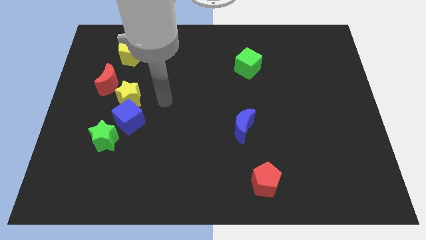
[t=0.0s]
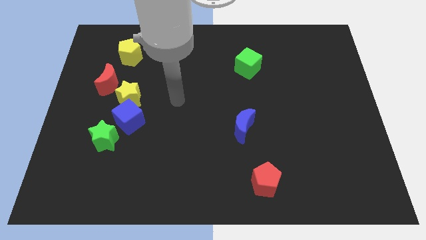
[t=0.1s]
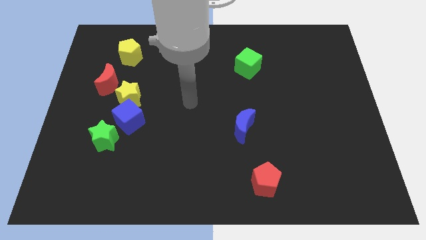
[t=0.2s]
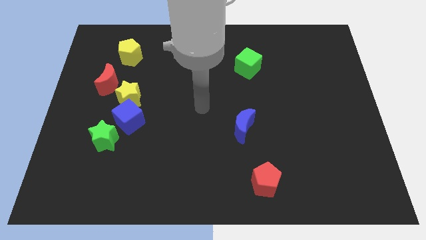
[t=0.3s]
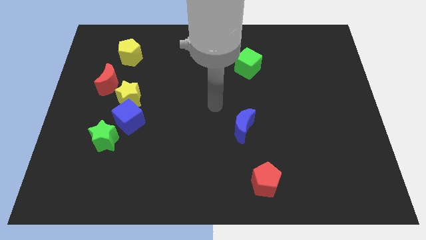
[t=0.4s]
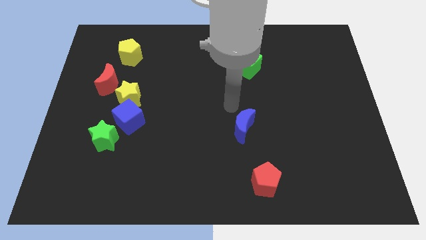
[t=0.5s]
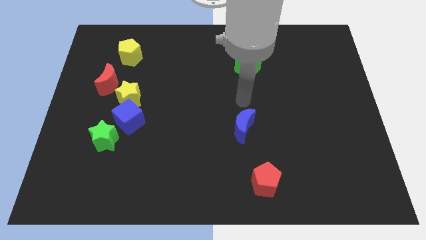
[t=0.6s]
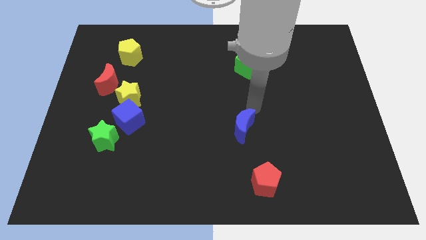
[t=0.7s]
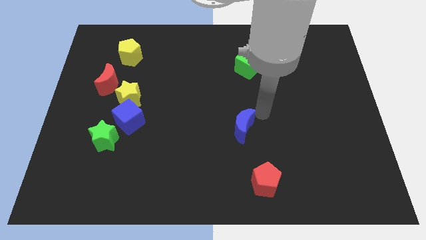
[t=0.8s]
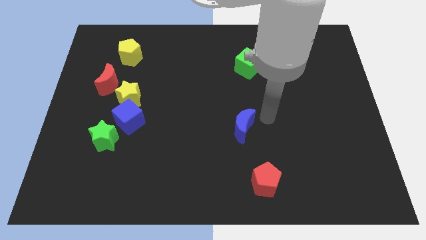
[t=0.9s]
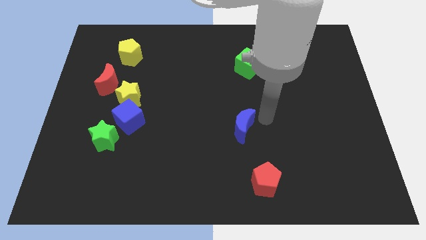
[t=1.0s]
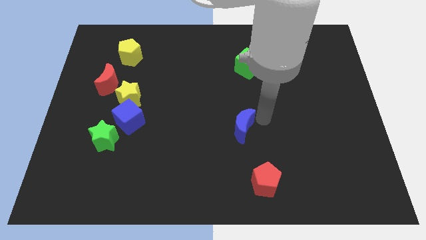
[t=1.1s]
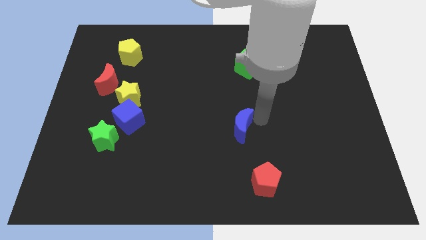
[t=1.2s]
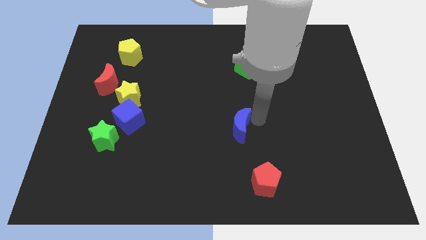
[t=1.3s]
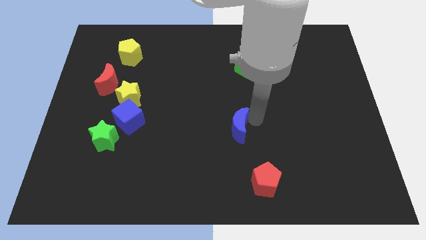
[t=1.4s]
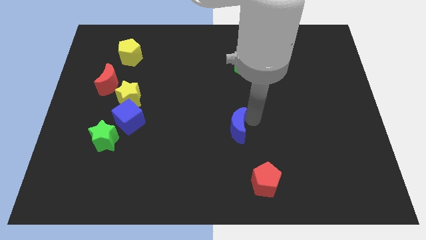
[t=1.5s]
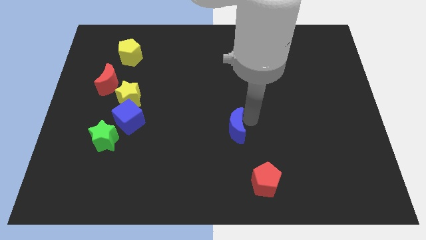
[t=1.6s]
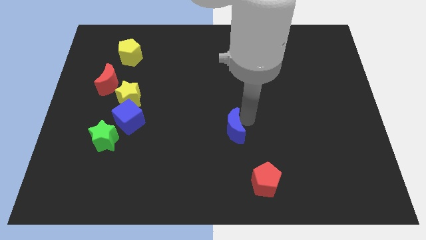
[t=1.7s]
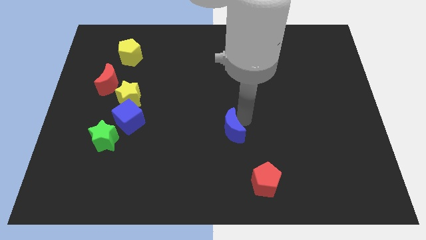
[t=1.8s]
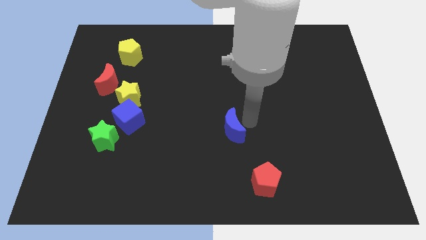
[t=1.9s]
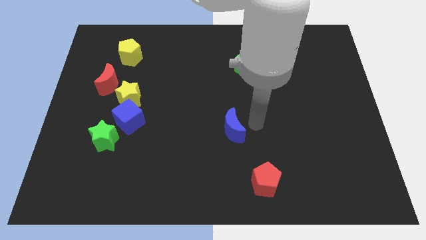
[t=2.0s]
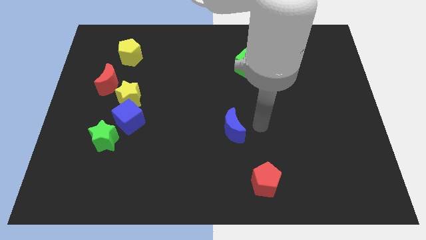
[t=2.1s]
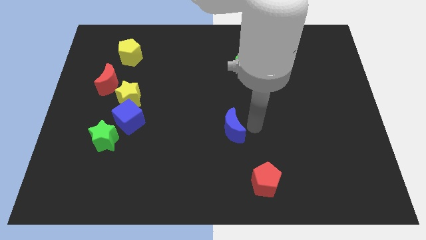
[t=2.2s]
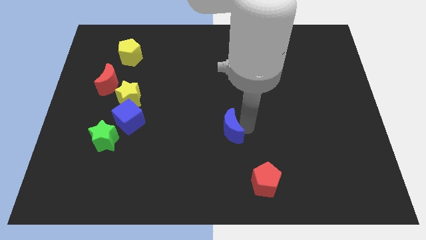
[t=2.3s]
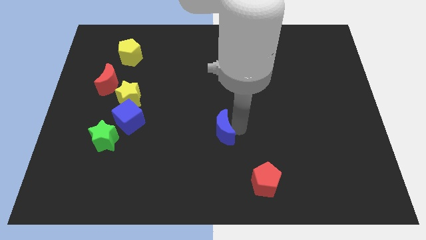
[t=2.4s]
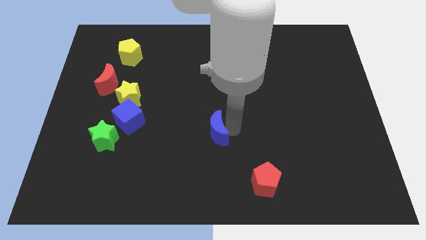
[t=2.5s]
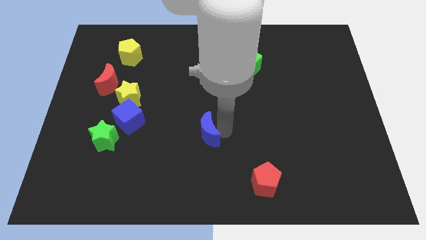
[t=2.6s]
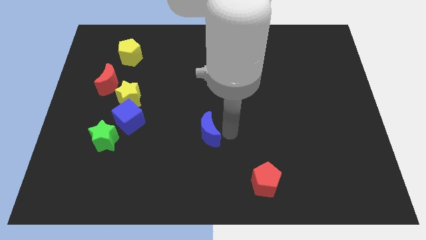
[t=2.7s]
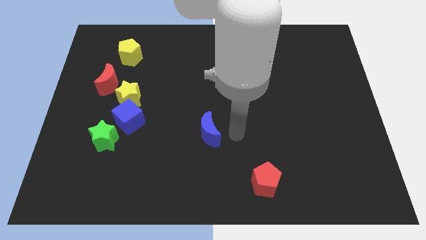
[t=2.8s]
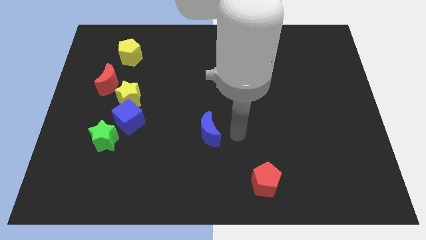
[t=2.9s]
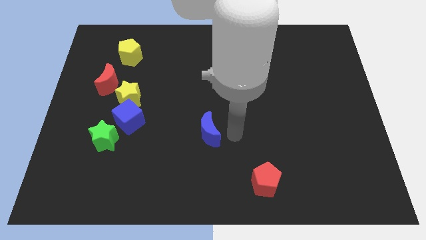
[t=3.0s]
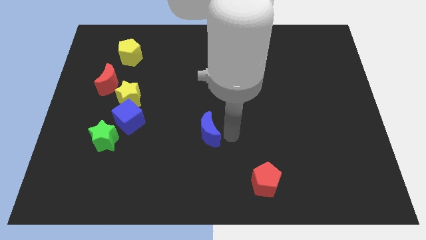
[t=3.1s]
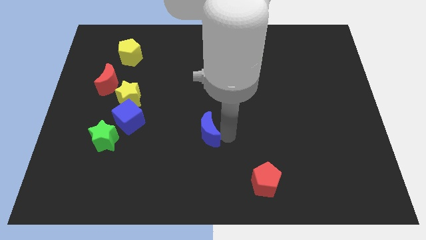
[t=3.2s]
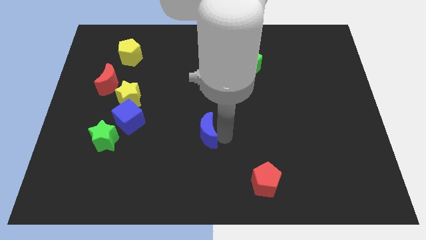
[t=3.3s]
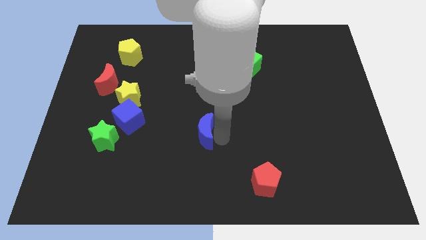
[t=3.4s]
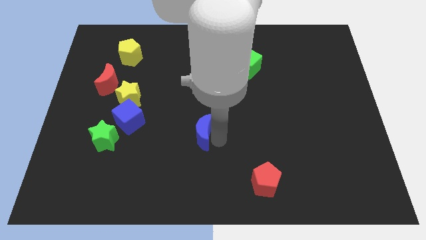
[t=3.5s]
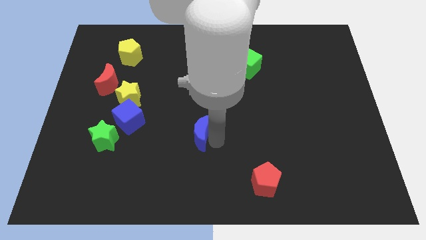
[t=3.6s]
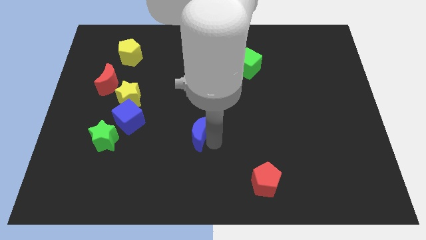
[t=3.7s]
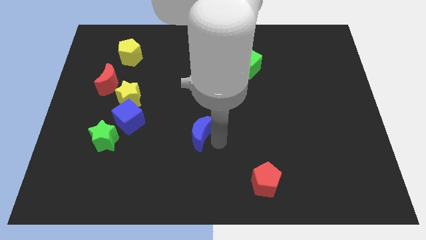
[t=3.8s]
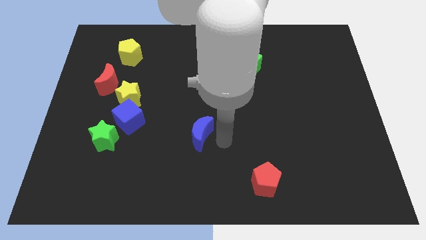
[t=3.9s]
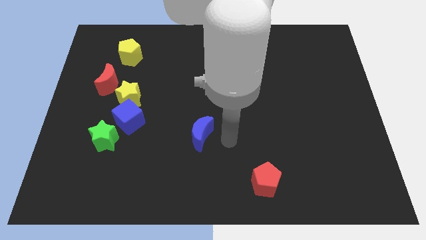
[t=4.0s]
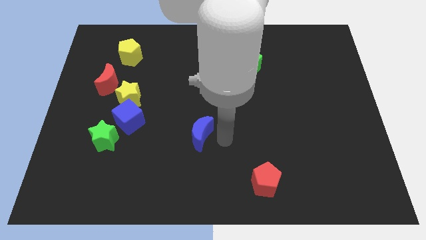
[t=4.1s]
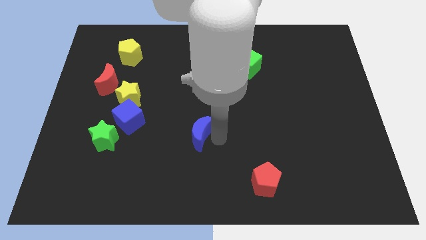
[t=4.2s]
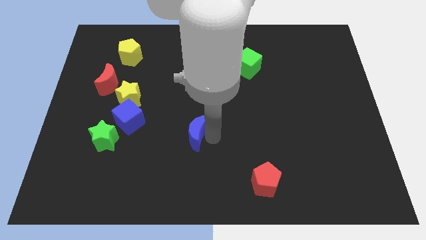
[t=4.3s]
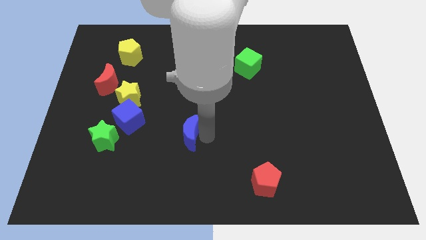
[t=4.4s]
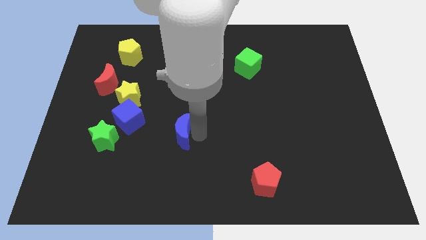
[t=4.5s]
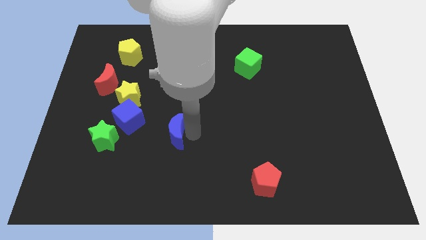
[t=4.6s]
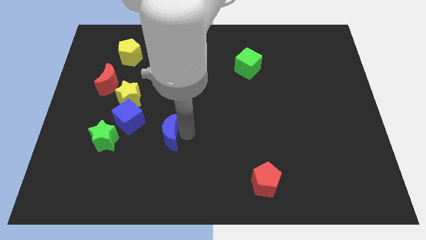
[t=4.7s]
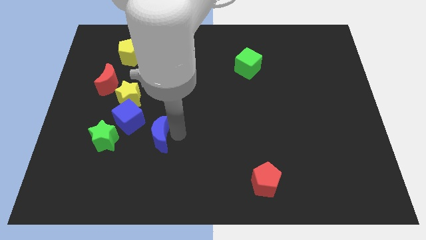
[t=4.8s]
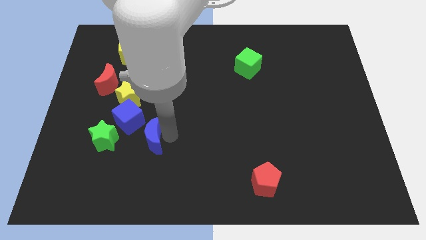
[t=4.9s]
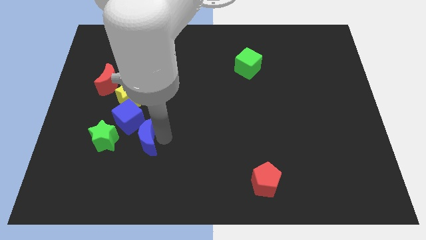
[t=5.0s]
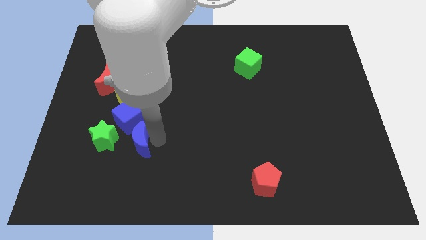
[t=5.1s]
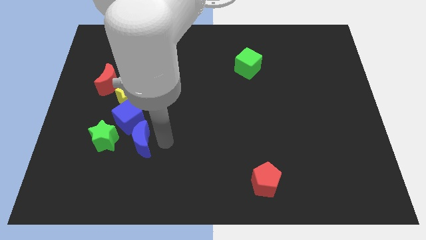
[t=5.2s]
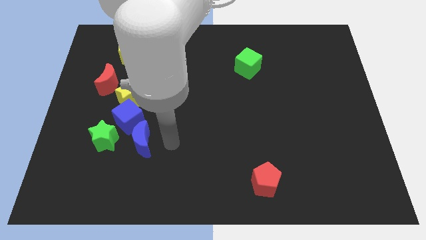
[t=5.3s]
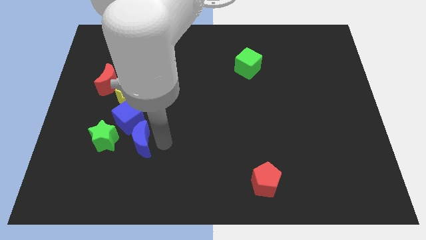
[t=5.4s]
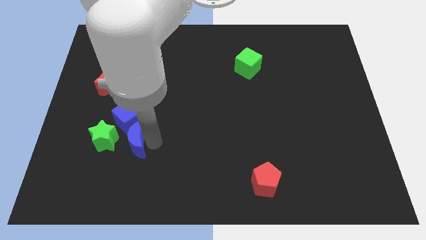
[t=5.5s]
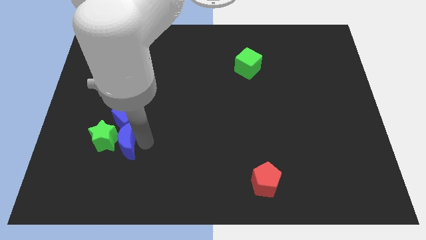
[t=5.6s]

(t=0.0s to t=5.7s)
push the blue moon to the green star

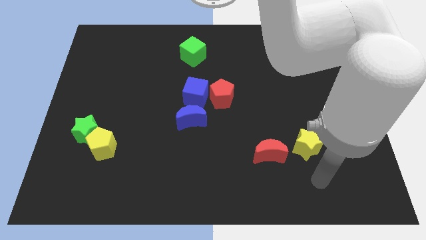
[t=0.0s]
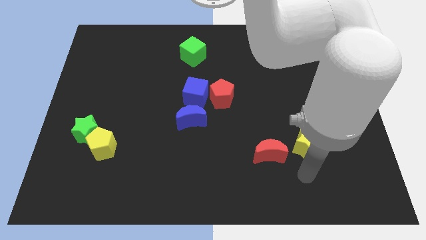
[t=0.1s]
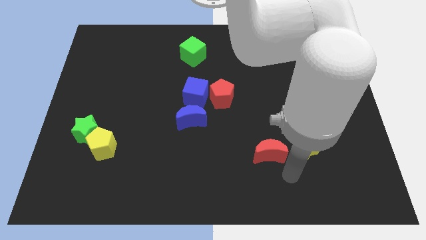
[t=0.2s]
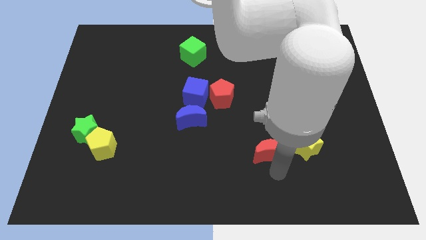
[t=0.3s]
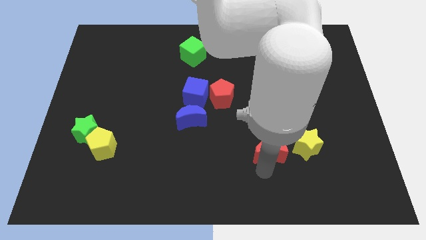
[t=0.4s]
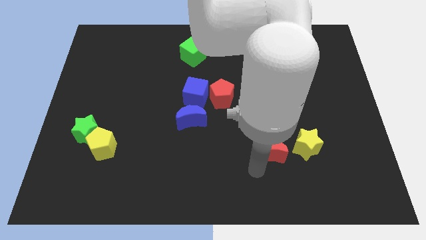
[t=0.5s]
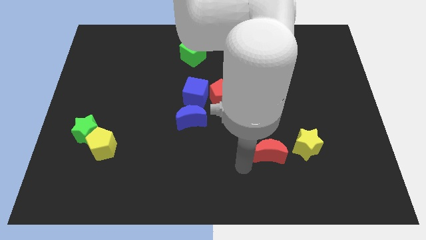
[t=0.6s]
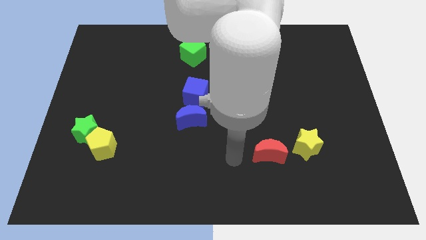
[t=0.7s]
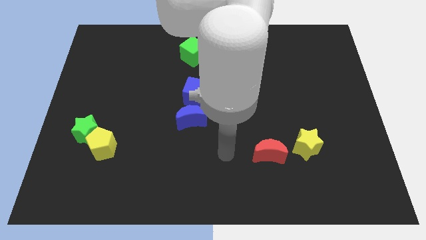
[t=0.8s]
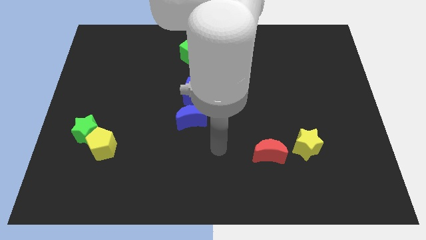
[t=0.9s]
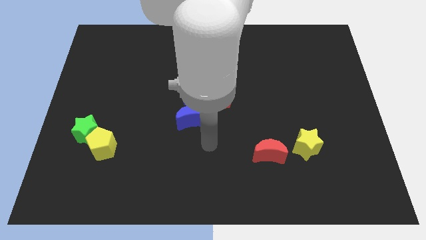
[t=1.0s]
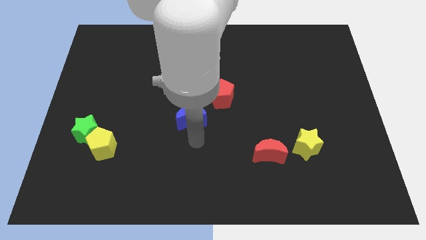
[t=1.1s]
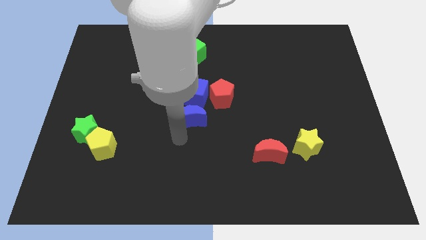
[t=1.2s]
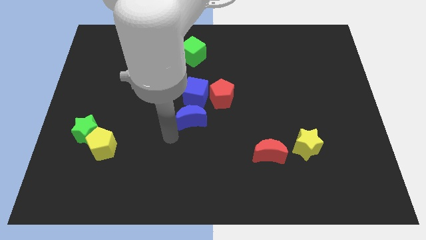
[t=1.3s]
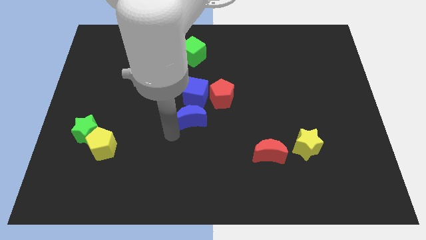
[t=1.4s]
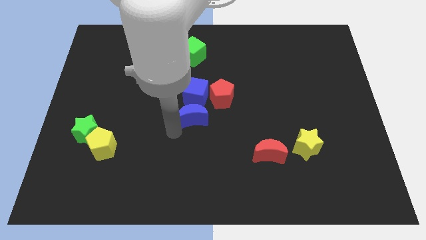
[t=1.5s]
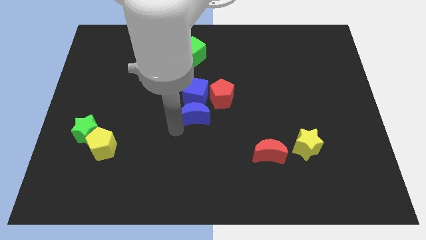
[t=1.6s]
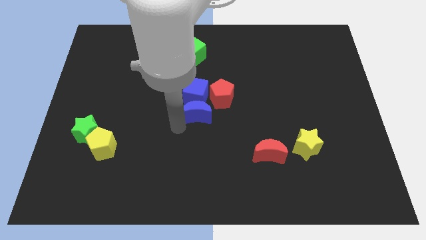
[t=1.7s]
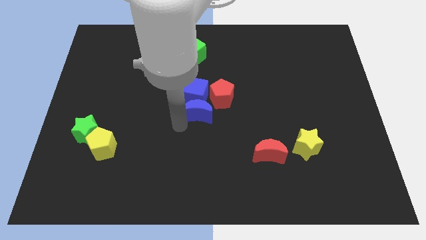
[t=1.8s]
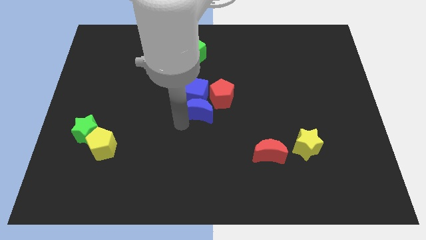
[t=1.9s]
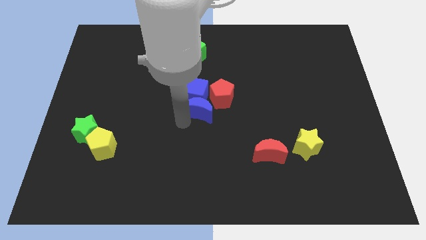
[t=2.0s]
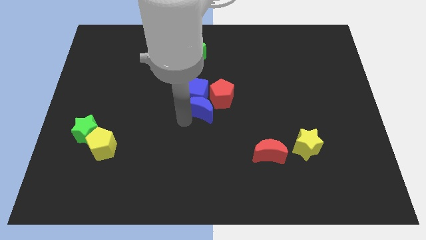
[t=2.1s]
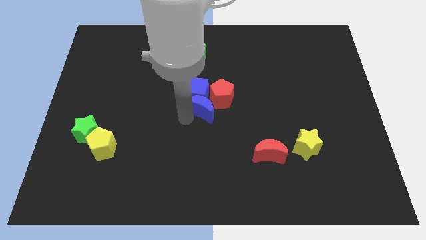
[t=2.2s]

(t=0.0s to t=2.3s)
slide the blue moon towards the red pentagon
